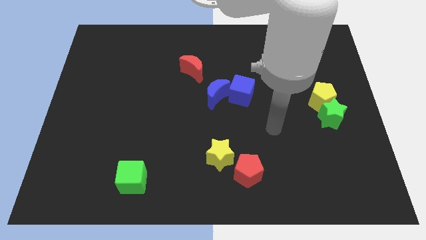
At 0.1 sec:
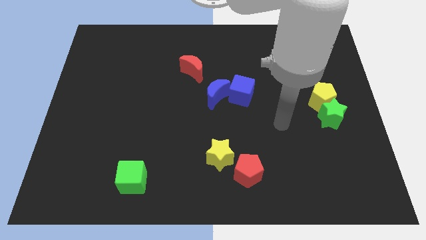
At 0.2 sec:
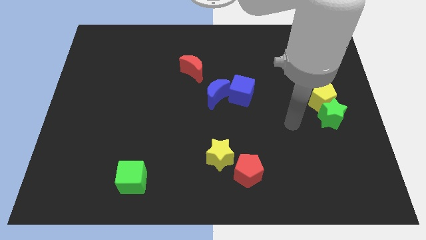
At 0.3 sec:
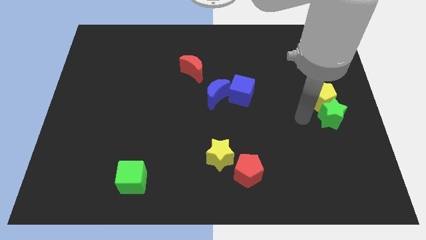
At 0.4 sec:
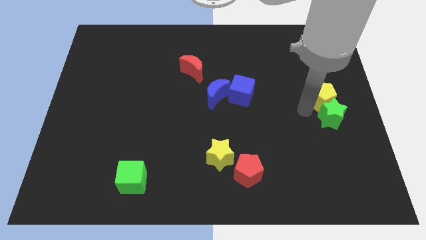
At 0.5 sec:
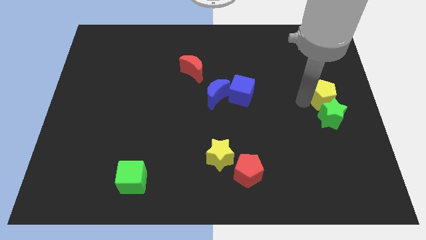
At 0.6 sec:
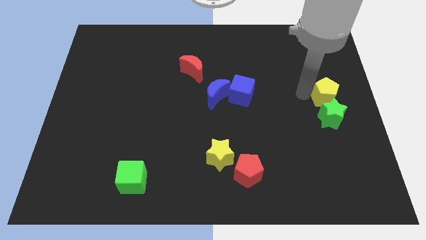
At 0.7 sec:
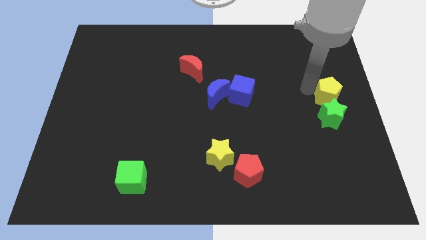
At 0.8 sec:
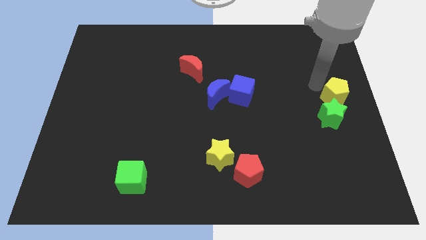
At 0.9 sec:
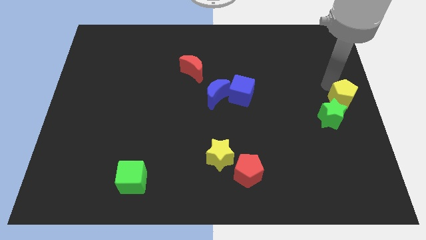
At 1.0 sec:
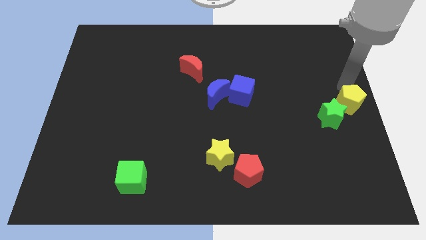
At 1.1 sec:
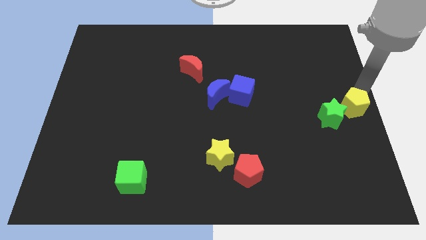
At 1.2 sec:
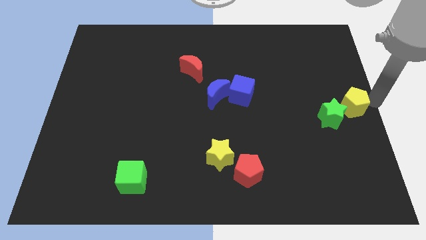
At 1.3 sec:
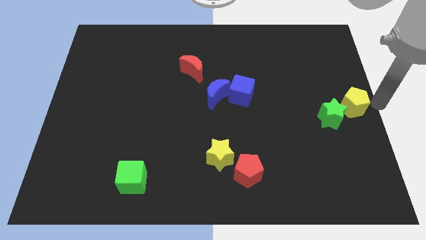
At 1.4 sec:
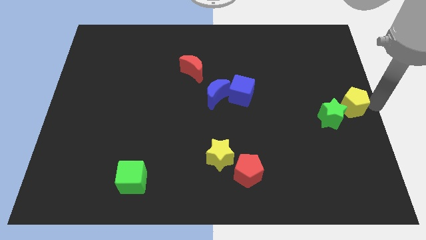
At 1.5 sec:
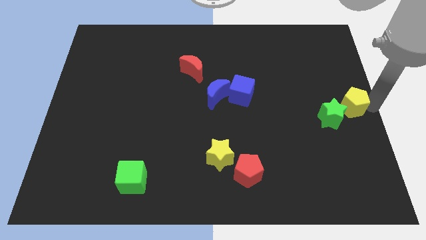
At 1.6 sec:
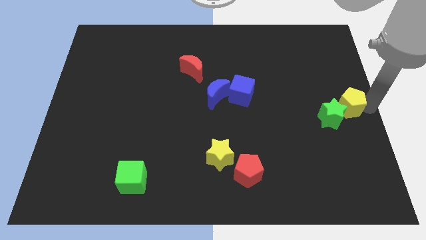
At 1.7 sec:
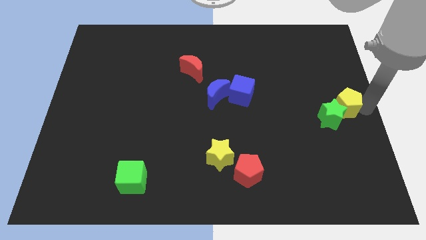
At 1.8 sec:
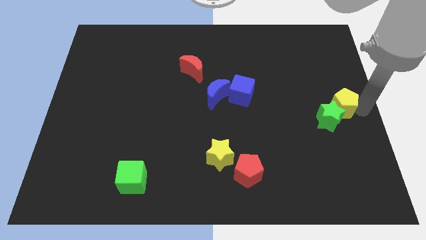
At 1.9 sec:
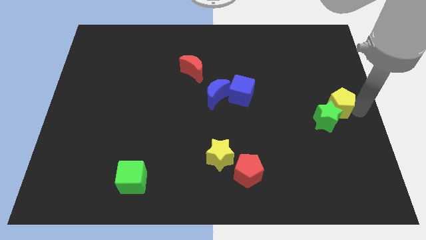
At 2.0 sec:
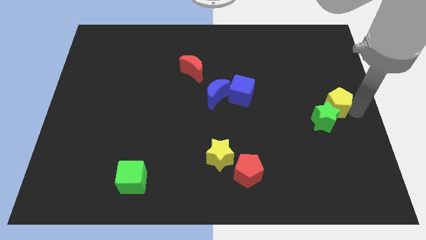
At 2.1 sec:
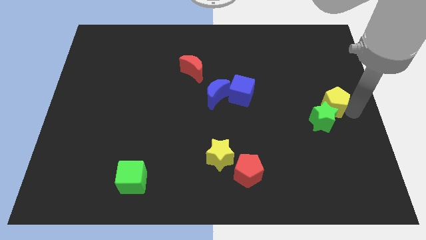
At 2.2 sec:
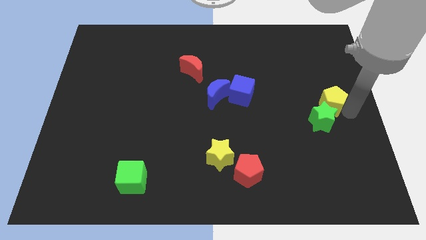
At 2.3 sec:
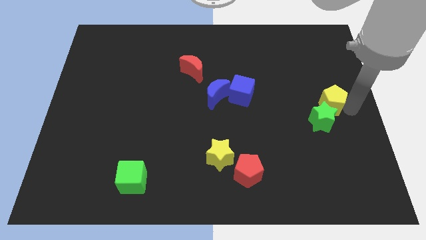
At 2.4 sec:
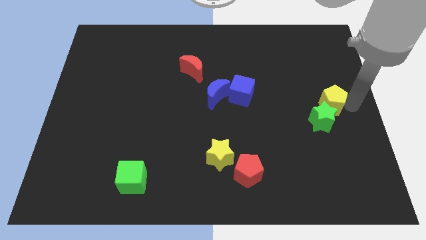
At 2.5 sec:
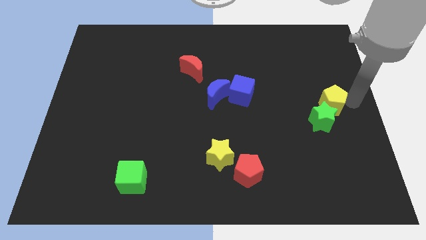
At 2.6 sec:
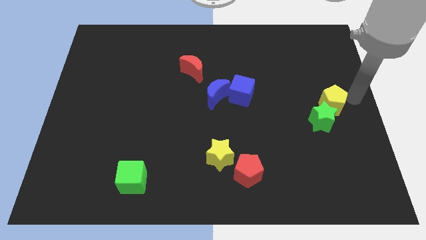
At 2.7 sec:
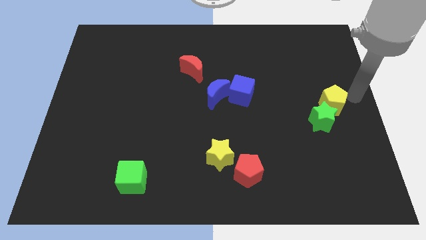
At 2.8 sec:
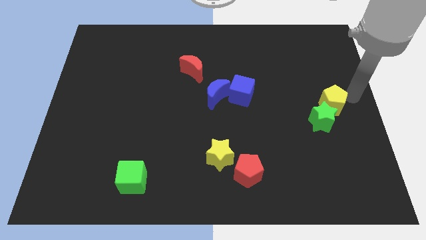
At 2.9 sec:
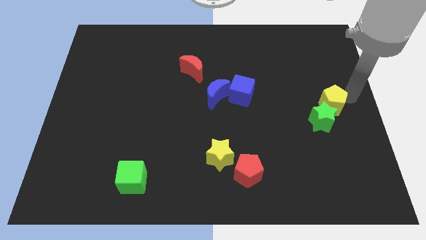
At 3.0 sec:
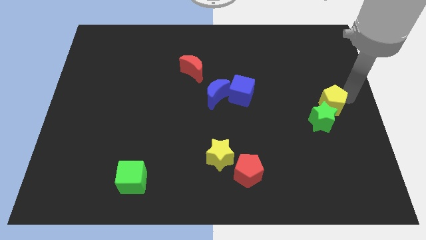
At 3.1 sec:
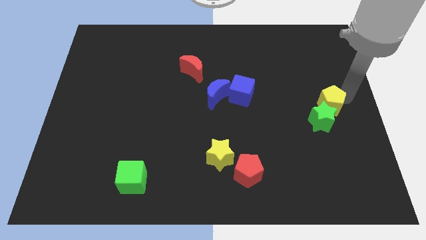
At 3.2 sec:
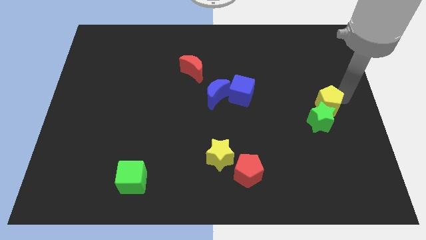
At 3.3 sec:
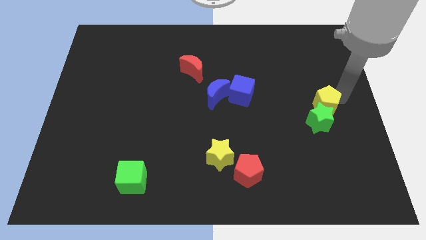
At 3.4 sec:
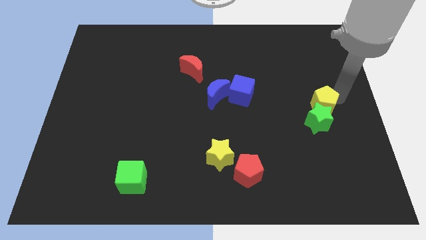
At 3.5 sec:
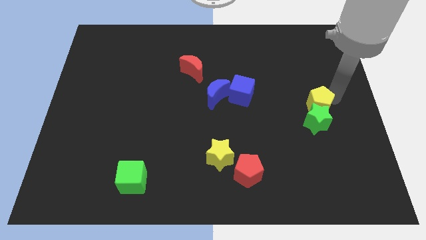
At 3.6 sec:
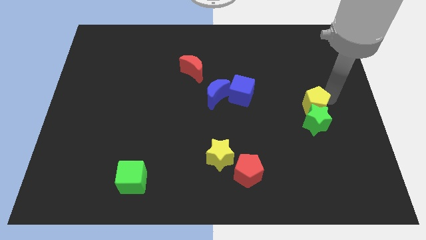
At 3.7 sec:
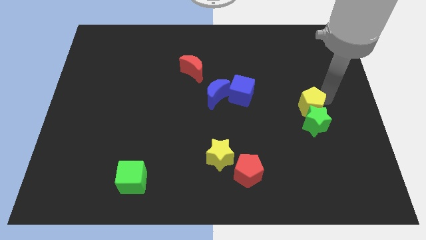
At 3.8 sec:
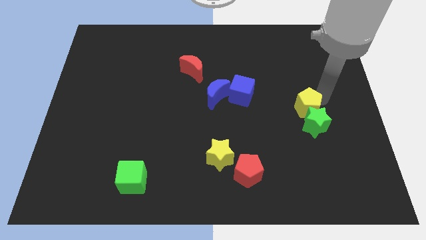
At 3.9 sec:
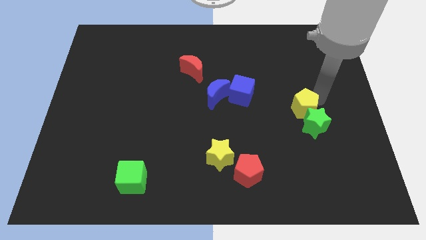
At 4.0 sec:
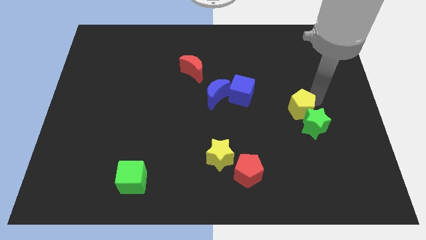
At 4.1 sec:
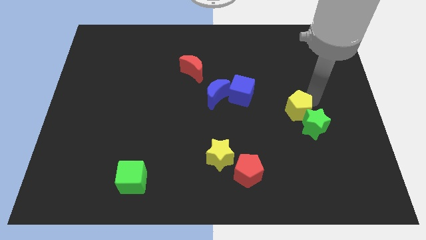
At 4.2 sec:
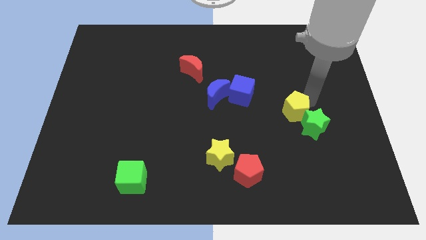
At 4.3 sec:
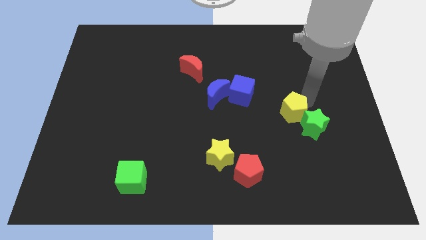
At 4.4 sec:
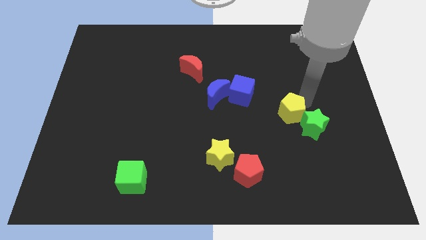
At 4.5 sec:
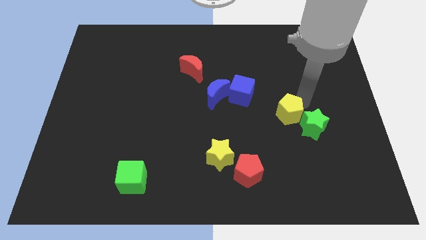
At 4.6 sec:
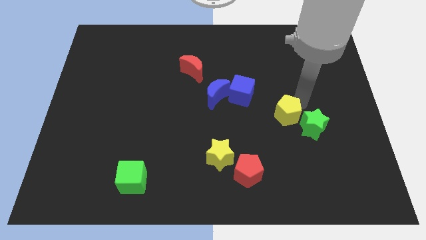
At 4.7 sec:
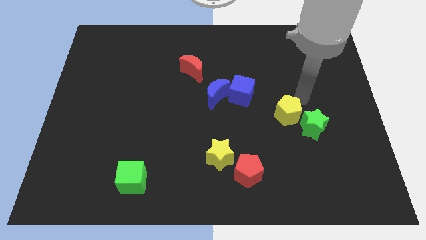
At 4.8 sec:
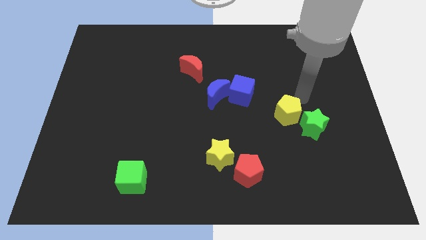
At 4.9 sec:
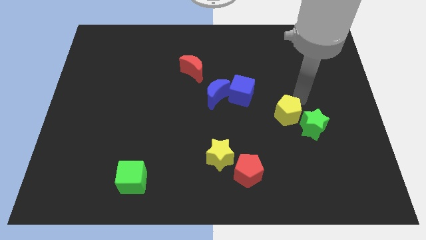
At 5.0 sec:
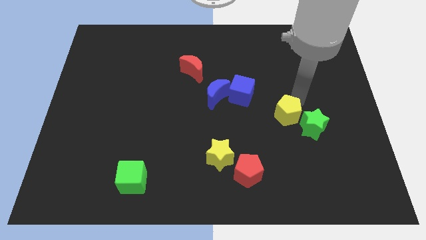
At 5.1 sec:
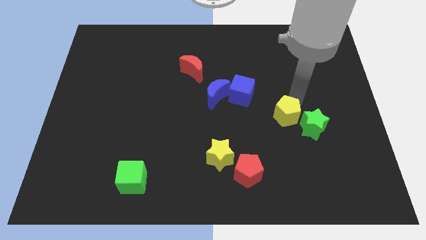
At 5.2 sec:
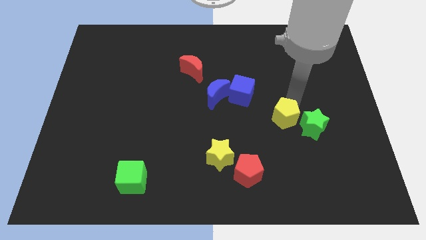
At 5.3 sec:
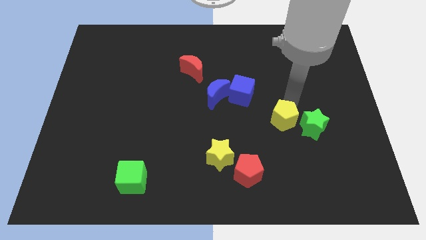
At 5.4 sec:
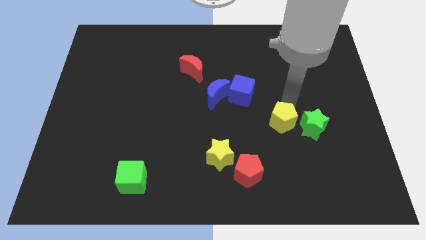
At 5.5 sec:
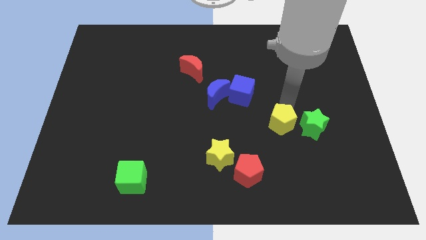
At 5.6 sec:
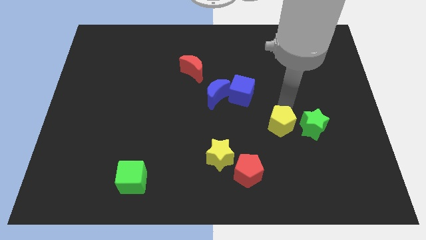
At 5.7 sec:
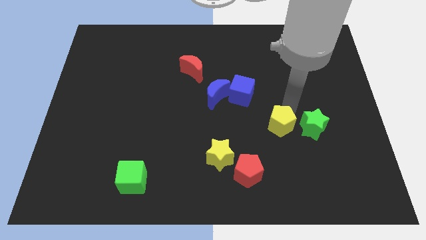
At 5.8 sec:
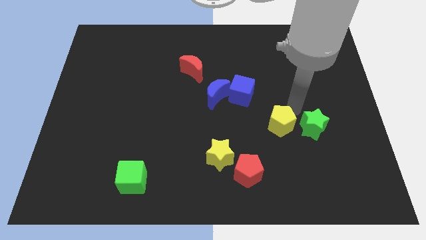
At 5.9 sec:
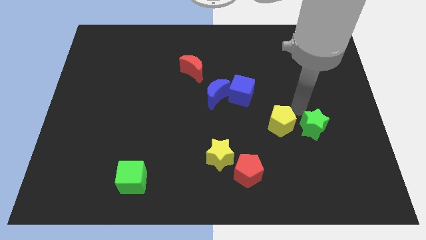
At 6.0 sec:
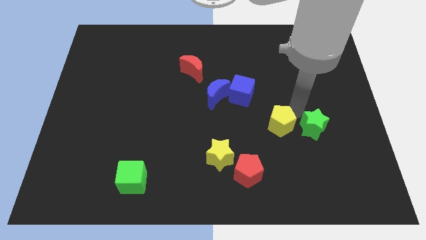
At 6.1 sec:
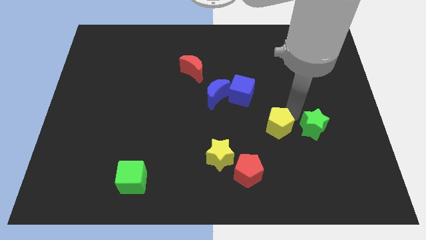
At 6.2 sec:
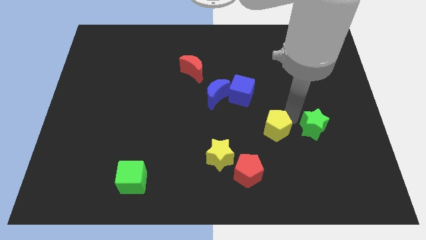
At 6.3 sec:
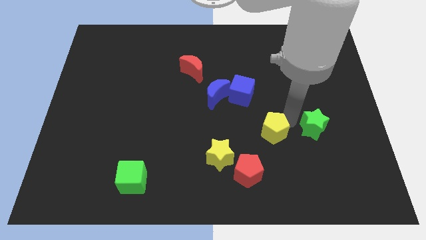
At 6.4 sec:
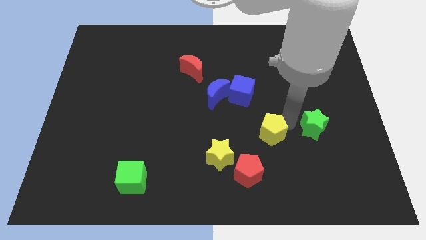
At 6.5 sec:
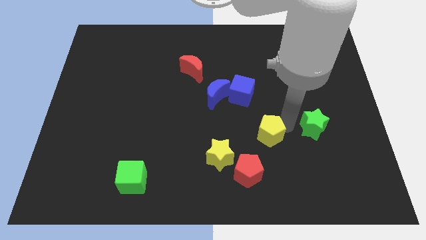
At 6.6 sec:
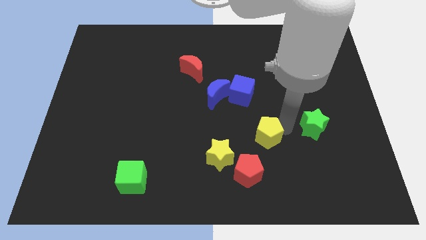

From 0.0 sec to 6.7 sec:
put the yellow pentagon to the top right of the yellow star

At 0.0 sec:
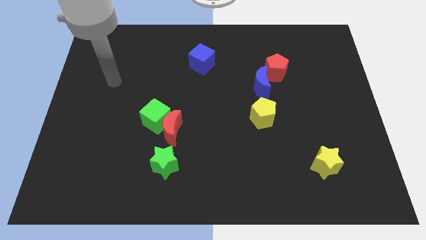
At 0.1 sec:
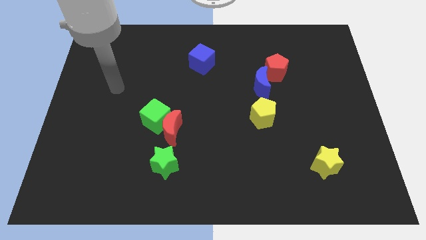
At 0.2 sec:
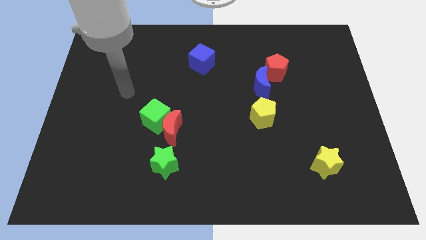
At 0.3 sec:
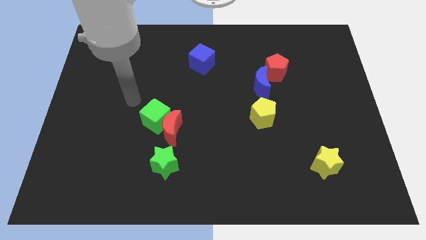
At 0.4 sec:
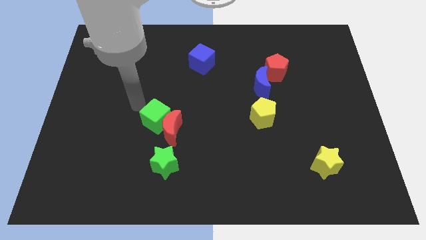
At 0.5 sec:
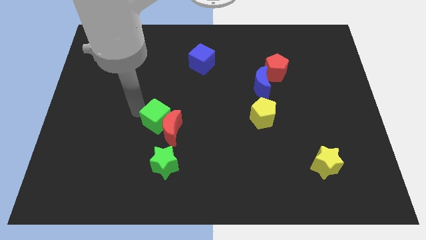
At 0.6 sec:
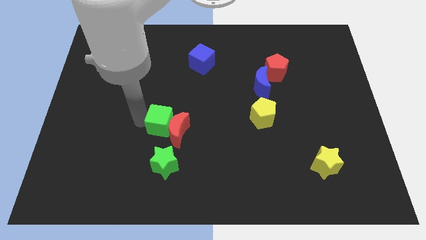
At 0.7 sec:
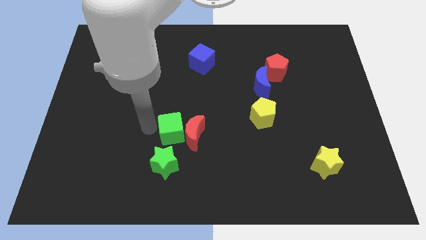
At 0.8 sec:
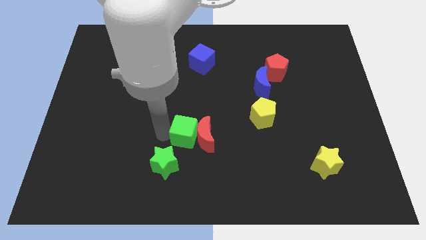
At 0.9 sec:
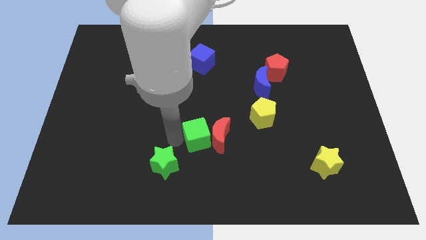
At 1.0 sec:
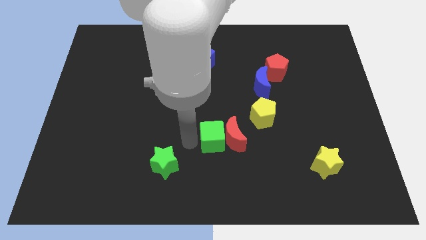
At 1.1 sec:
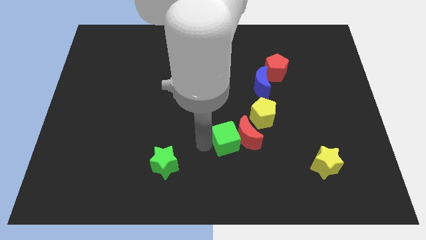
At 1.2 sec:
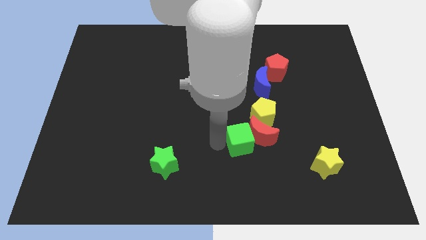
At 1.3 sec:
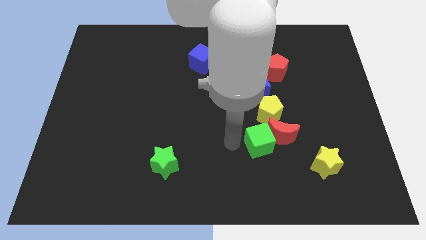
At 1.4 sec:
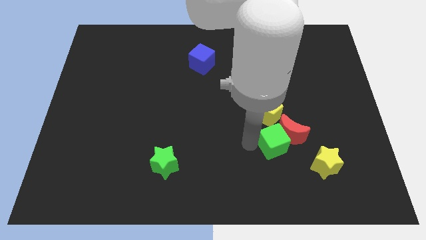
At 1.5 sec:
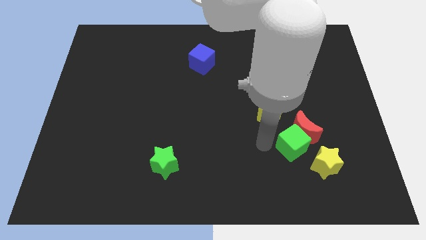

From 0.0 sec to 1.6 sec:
push the red moon to the top of the yellow star
